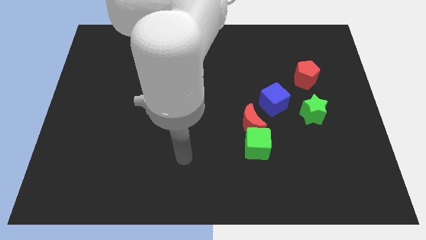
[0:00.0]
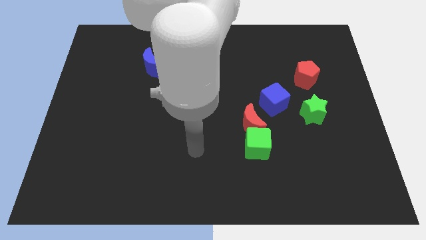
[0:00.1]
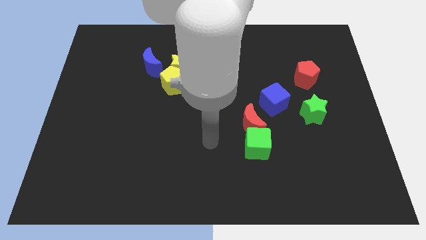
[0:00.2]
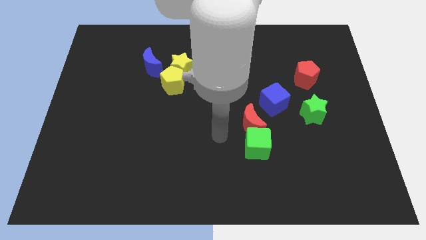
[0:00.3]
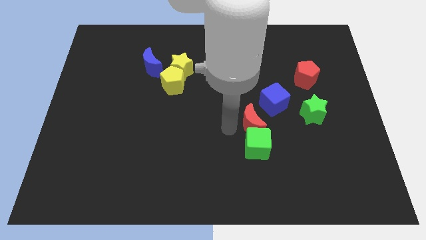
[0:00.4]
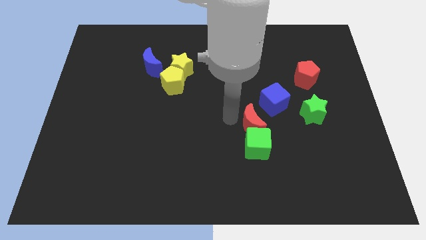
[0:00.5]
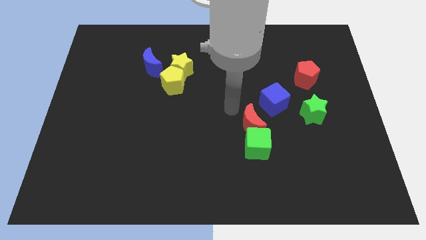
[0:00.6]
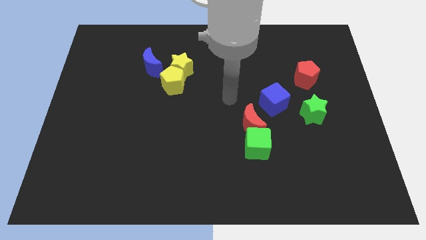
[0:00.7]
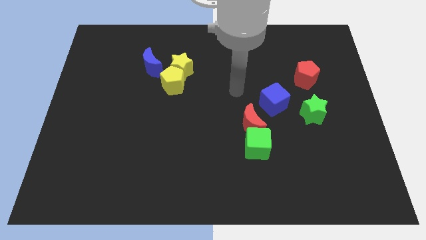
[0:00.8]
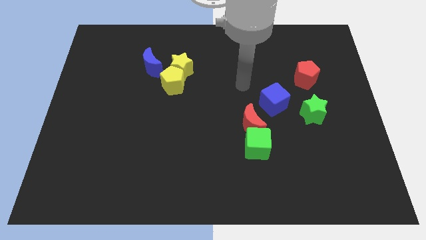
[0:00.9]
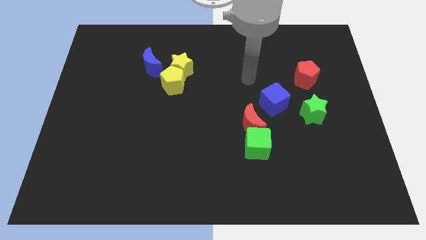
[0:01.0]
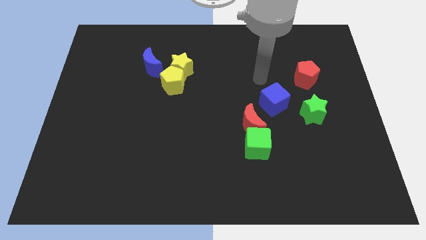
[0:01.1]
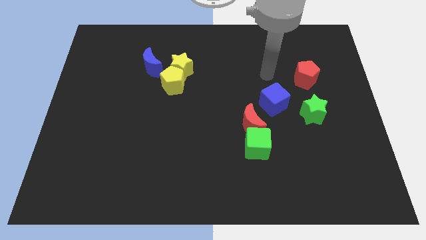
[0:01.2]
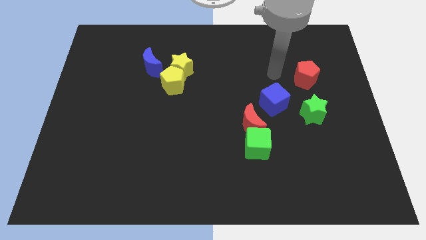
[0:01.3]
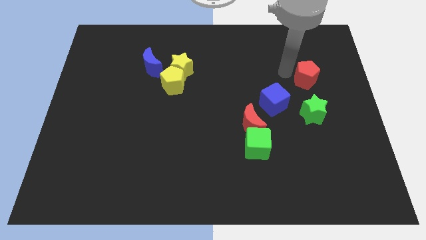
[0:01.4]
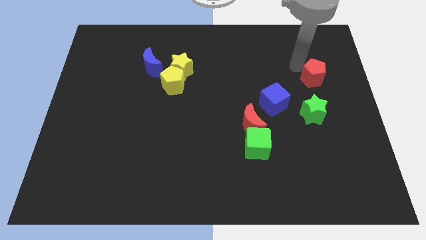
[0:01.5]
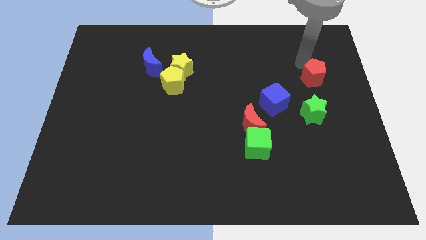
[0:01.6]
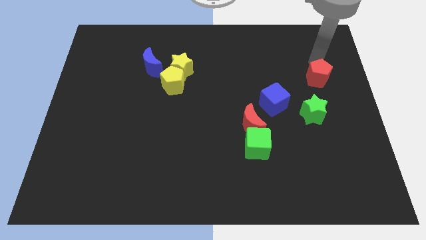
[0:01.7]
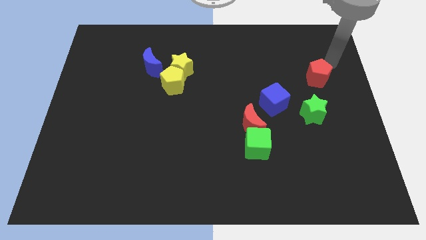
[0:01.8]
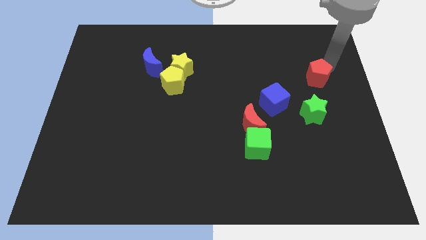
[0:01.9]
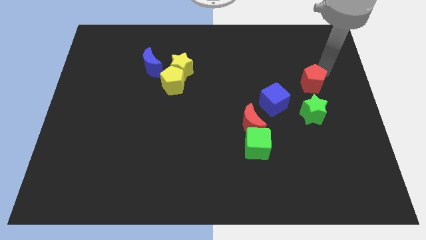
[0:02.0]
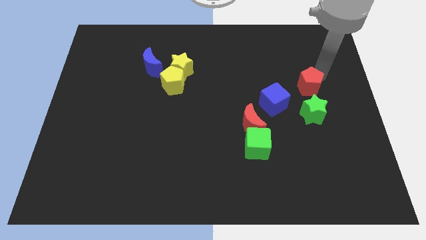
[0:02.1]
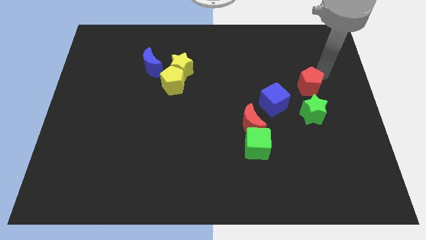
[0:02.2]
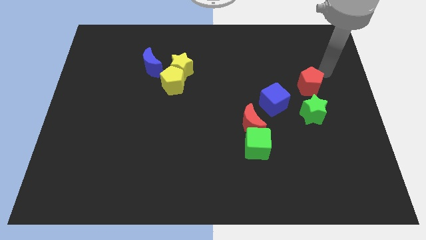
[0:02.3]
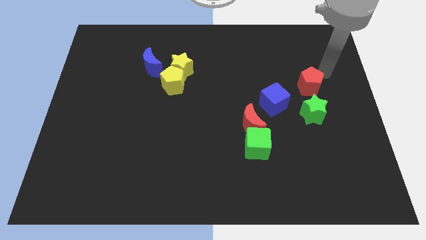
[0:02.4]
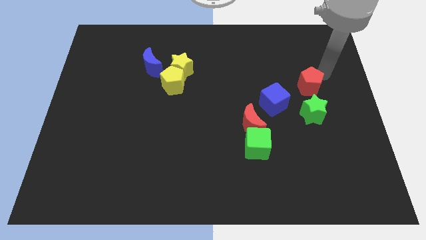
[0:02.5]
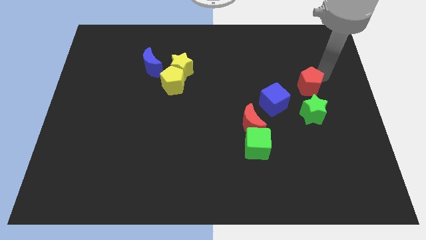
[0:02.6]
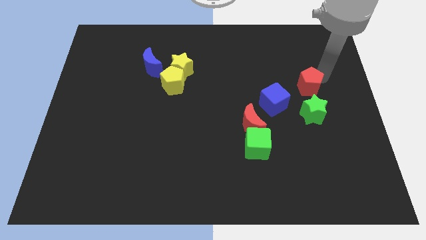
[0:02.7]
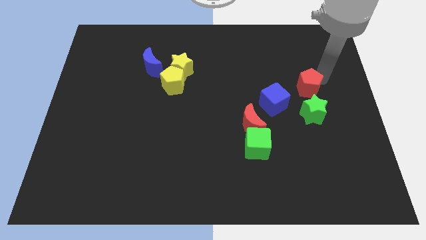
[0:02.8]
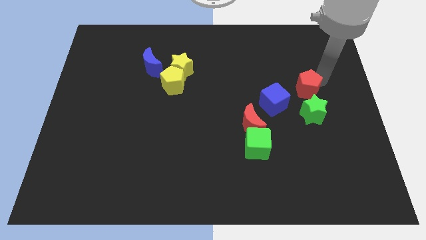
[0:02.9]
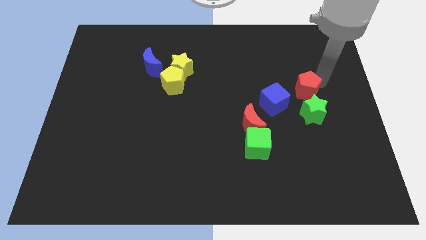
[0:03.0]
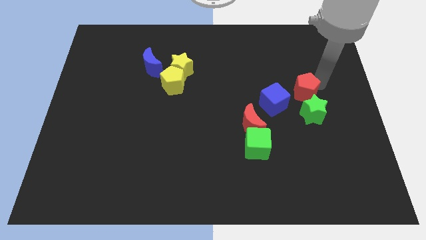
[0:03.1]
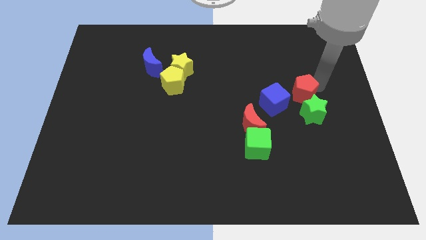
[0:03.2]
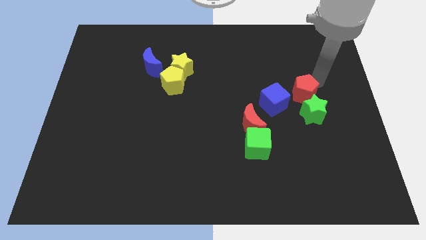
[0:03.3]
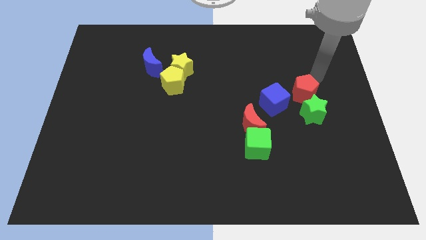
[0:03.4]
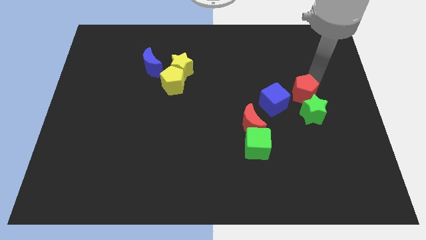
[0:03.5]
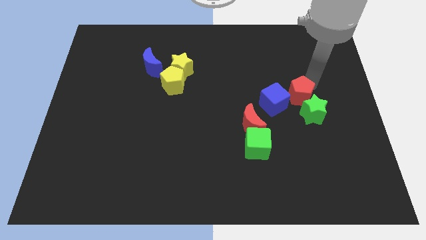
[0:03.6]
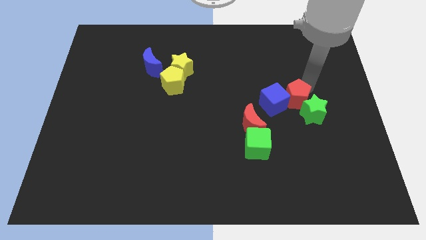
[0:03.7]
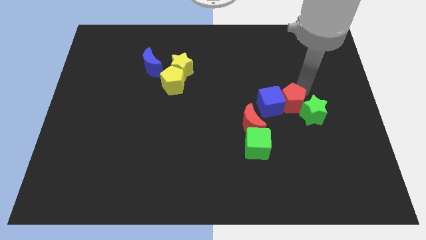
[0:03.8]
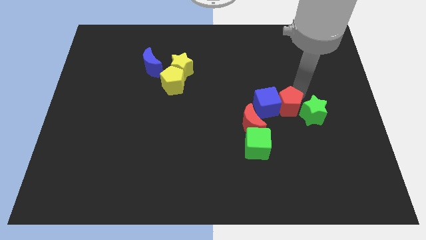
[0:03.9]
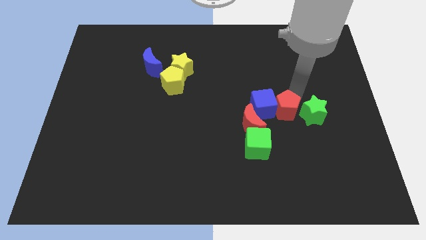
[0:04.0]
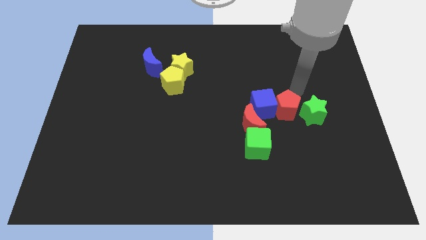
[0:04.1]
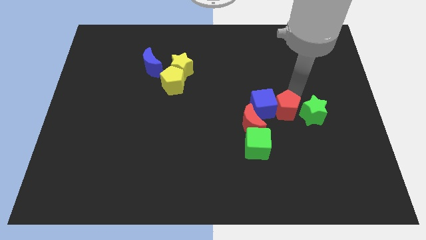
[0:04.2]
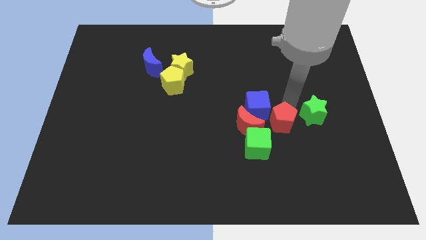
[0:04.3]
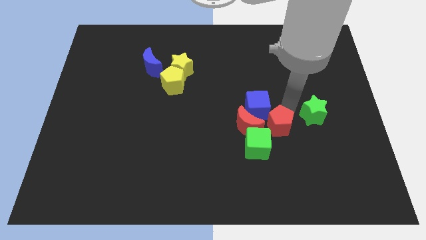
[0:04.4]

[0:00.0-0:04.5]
push the red pentagon to the bottom side of the blue cube

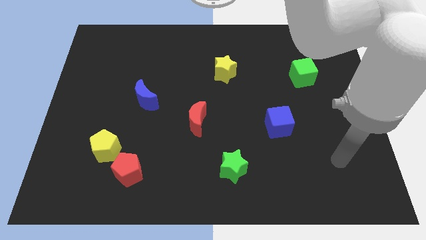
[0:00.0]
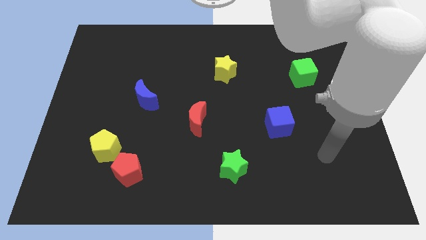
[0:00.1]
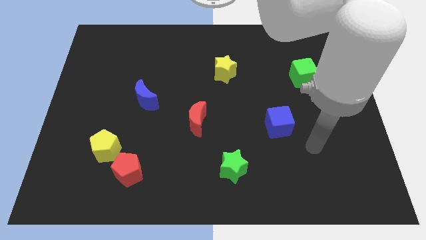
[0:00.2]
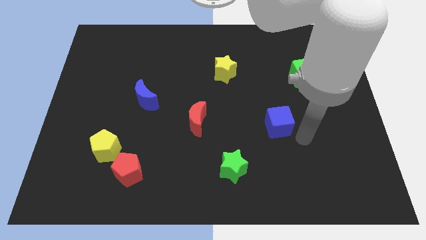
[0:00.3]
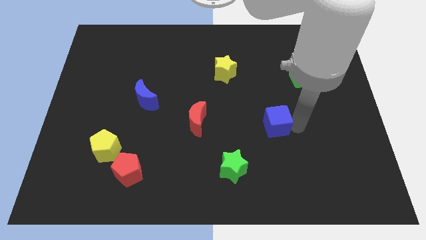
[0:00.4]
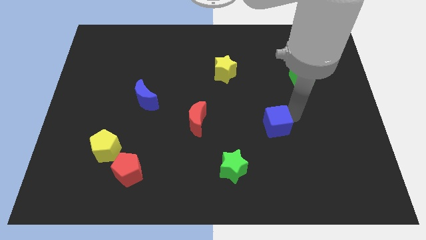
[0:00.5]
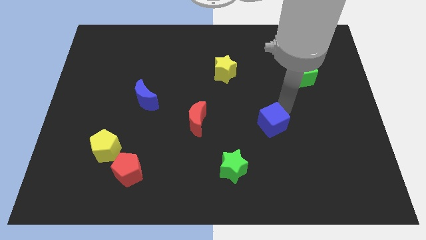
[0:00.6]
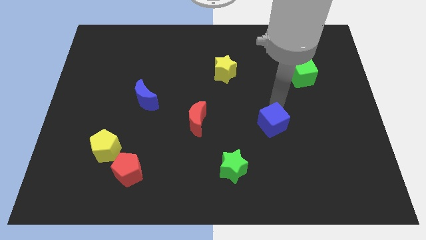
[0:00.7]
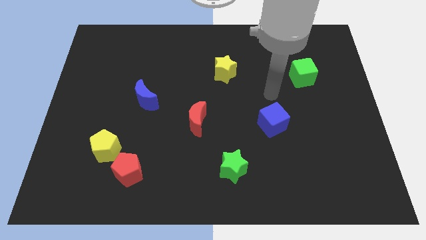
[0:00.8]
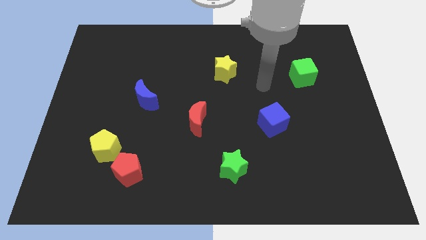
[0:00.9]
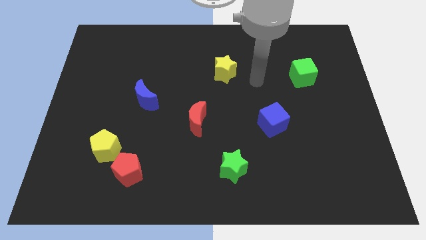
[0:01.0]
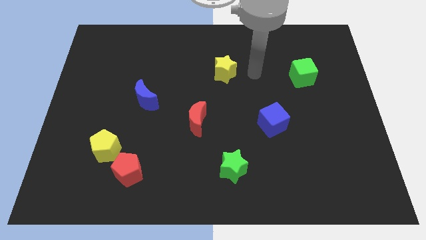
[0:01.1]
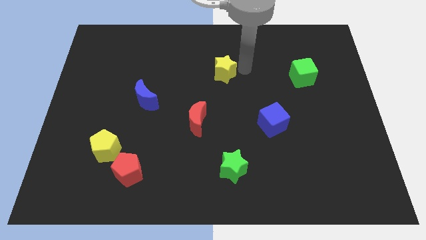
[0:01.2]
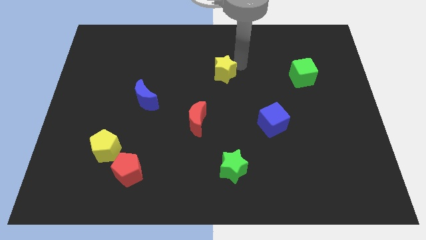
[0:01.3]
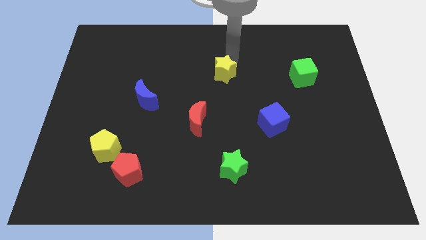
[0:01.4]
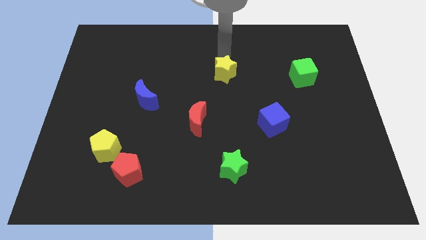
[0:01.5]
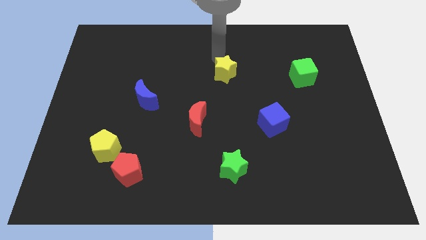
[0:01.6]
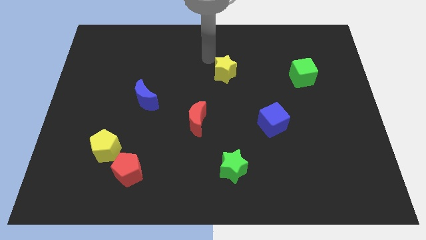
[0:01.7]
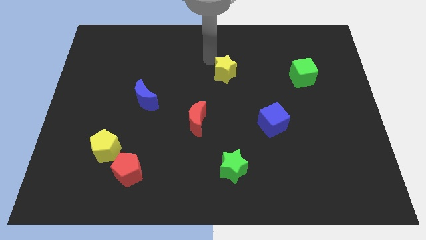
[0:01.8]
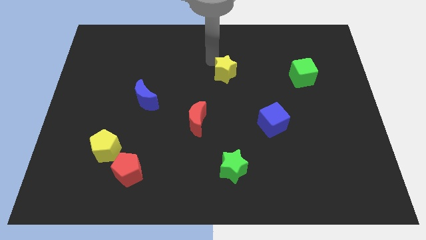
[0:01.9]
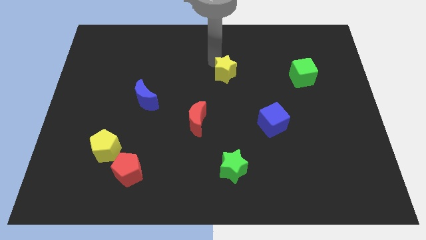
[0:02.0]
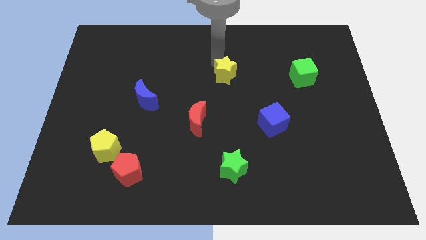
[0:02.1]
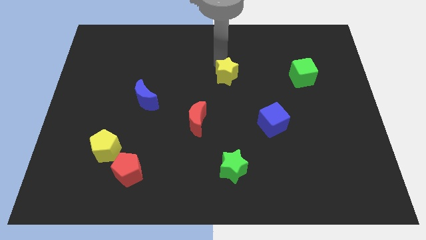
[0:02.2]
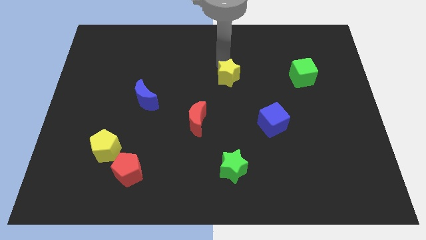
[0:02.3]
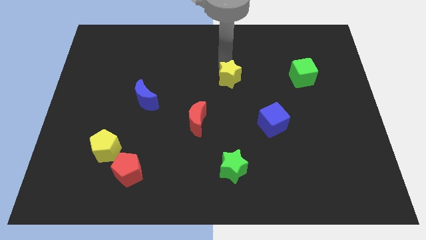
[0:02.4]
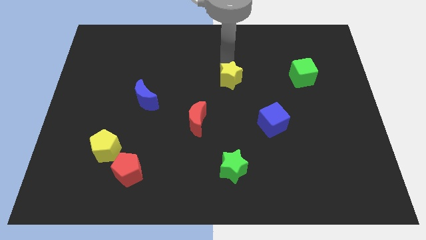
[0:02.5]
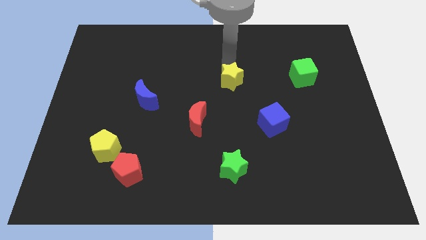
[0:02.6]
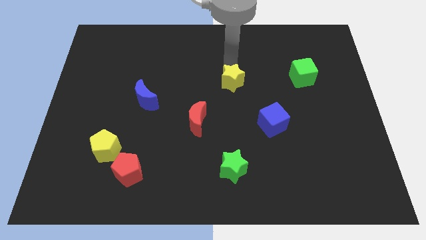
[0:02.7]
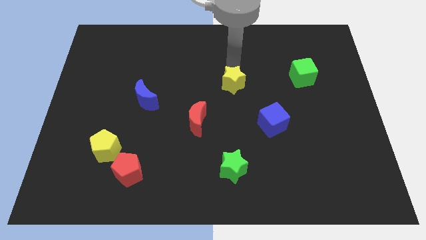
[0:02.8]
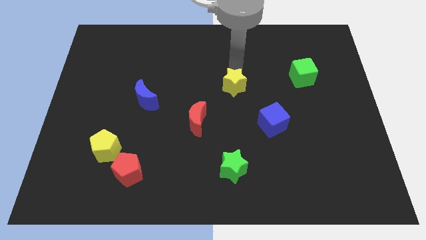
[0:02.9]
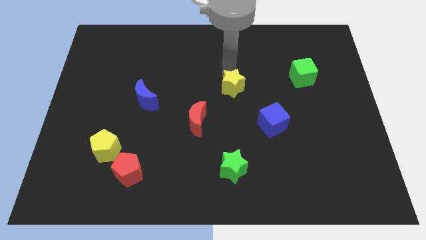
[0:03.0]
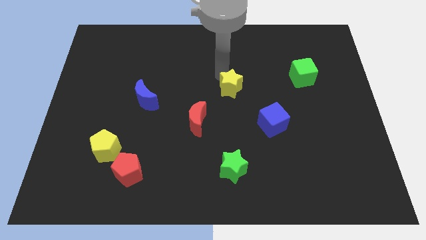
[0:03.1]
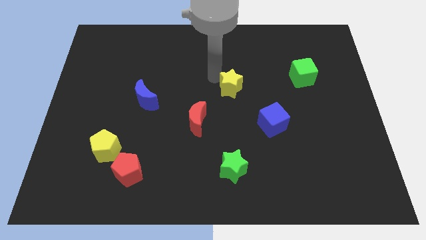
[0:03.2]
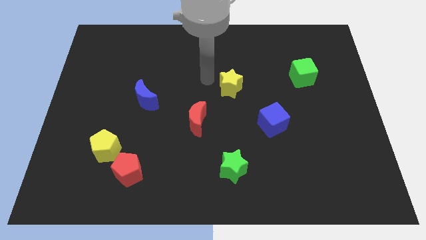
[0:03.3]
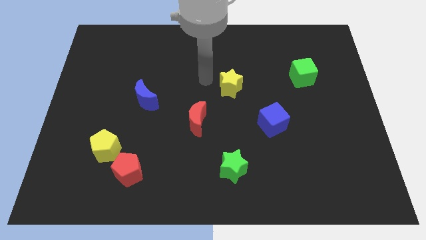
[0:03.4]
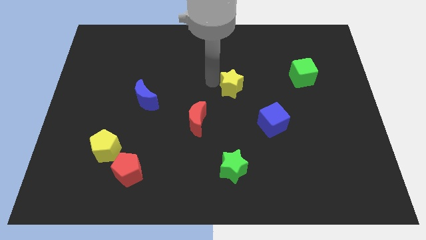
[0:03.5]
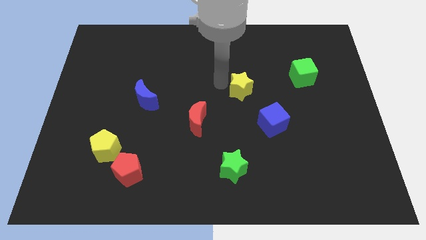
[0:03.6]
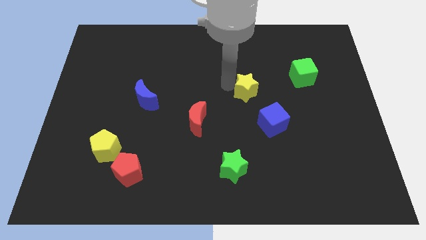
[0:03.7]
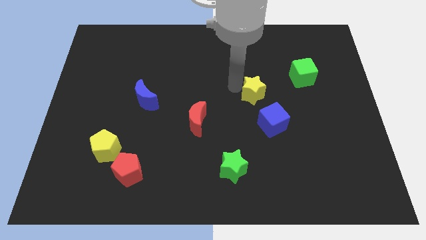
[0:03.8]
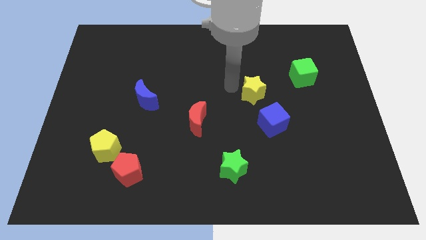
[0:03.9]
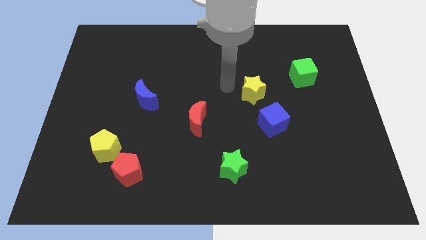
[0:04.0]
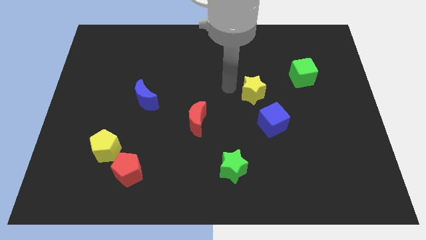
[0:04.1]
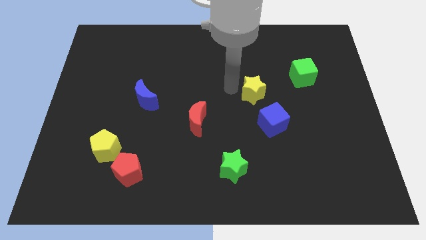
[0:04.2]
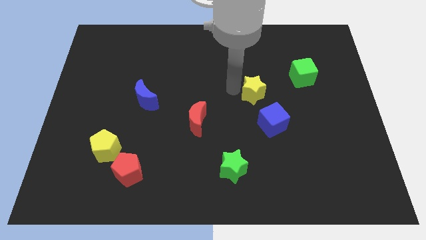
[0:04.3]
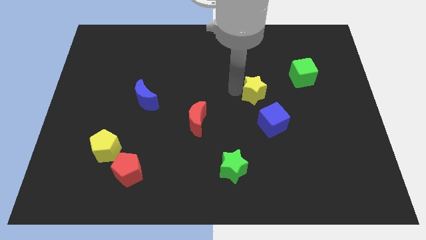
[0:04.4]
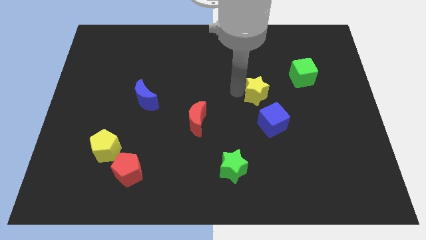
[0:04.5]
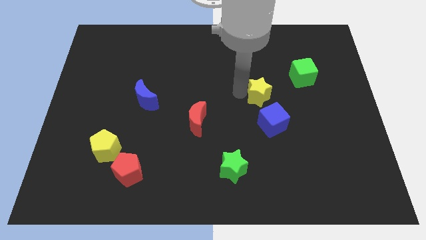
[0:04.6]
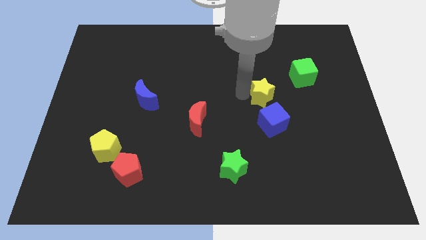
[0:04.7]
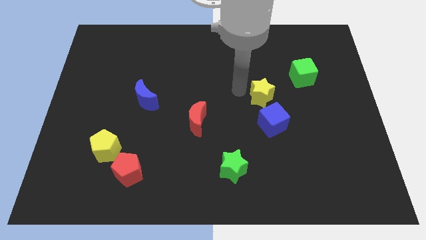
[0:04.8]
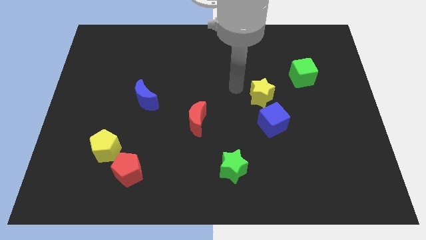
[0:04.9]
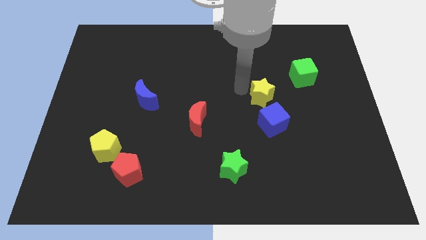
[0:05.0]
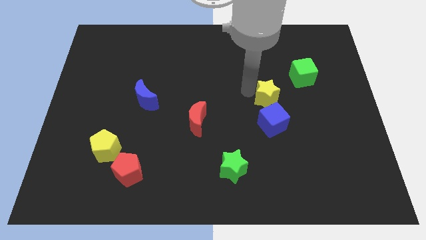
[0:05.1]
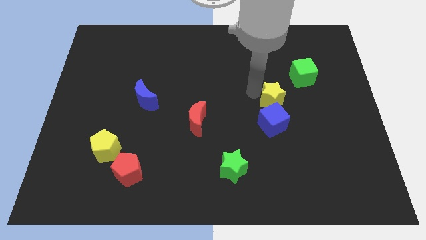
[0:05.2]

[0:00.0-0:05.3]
put the yellow star to the top right side of the blue cube
